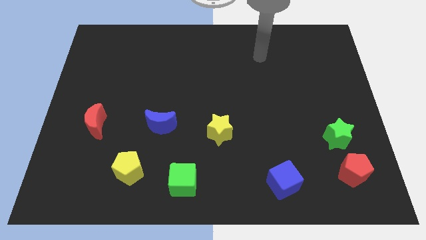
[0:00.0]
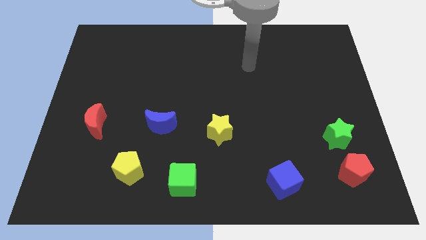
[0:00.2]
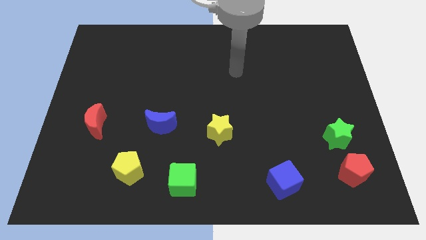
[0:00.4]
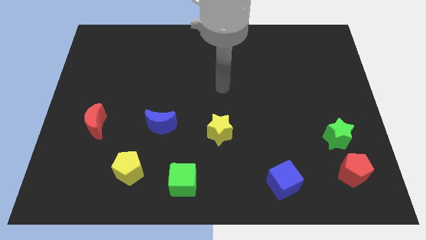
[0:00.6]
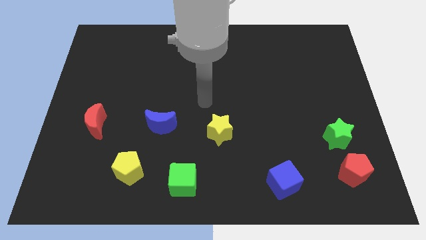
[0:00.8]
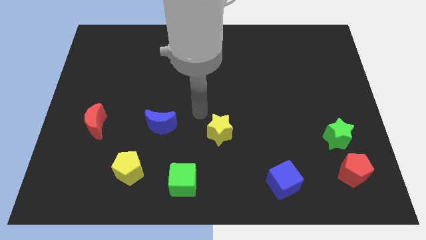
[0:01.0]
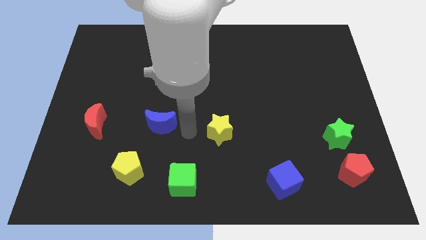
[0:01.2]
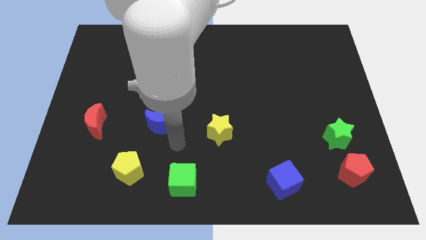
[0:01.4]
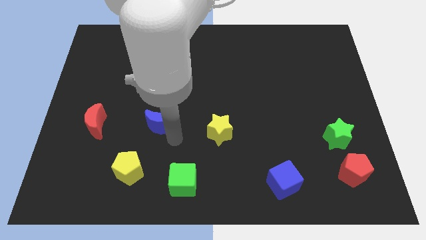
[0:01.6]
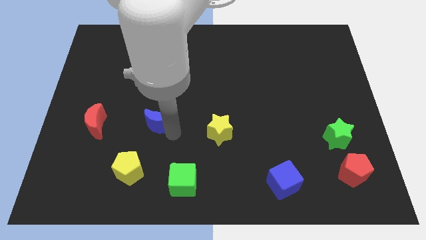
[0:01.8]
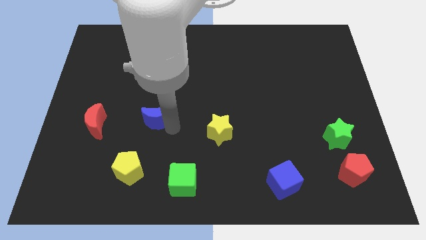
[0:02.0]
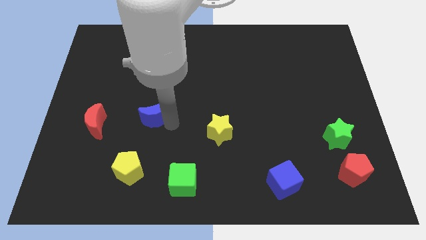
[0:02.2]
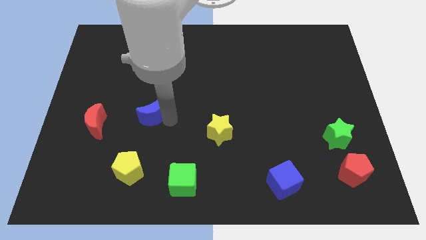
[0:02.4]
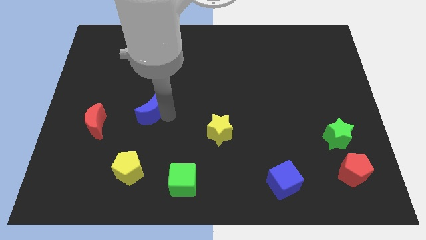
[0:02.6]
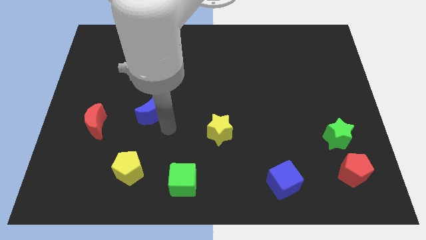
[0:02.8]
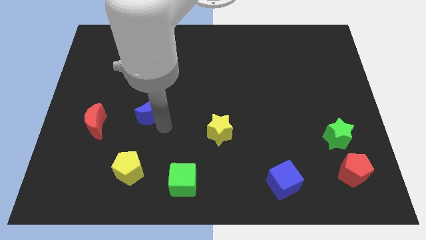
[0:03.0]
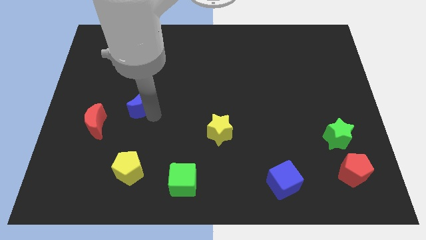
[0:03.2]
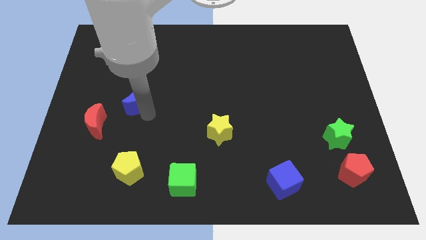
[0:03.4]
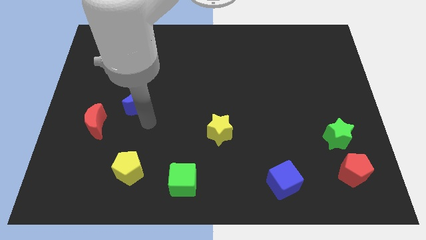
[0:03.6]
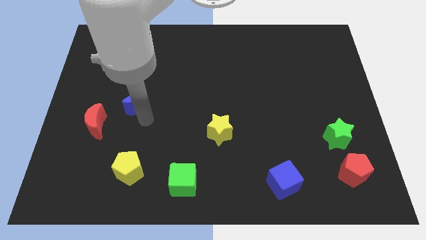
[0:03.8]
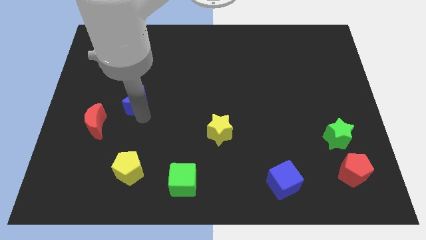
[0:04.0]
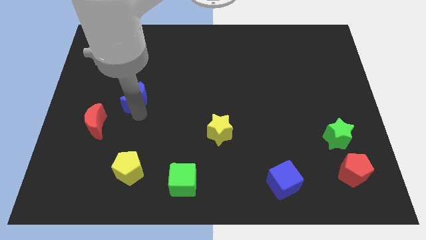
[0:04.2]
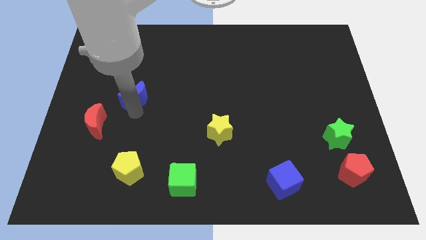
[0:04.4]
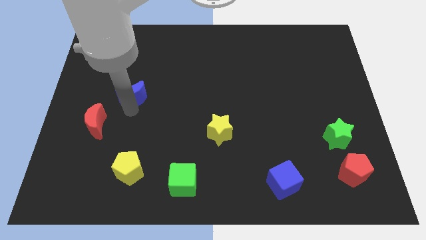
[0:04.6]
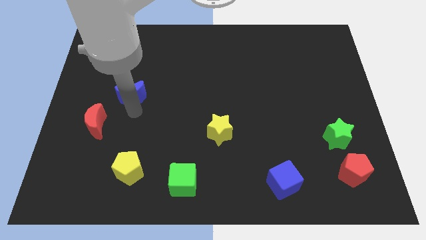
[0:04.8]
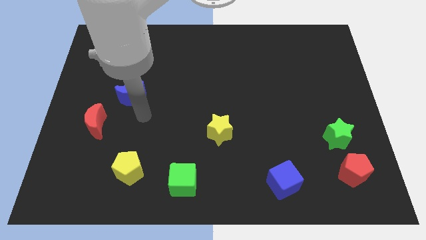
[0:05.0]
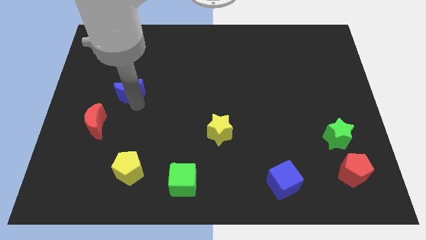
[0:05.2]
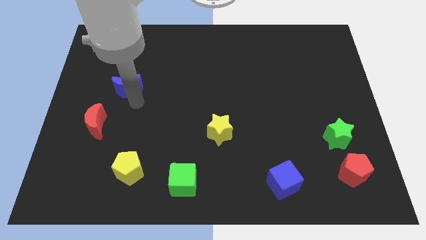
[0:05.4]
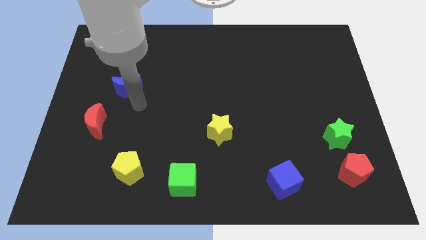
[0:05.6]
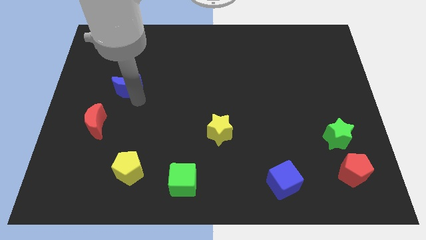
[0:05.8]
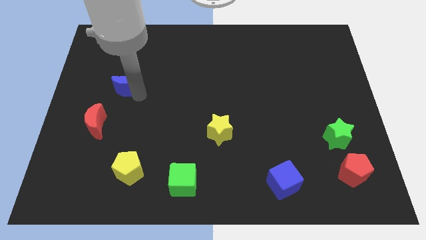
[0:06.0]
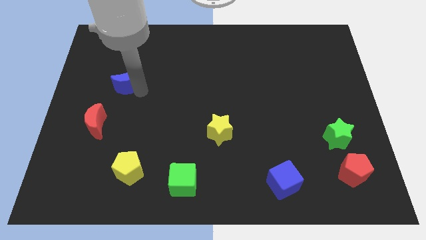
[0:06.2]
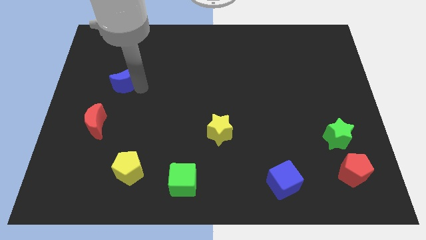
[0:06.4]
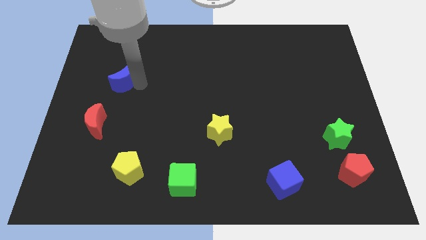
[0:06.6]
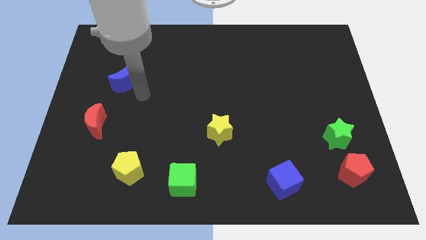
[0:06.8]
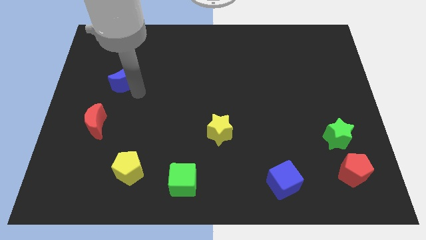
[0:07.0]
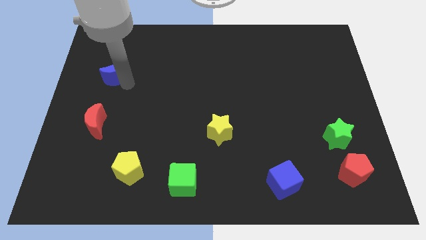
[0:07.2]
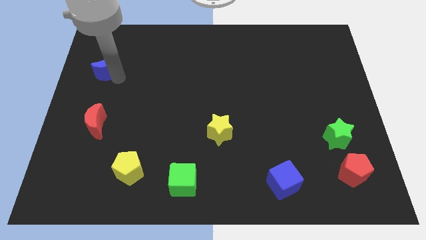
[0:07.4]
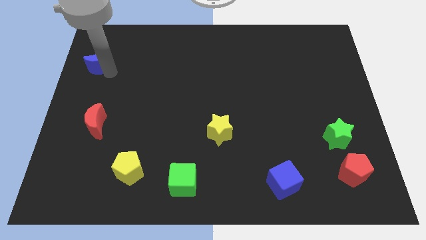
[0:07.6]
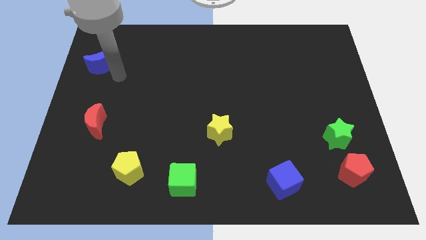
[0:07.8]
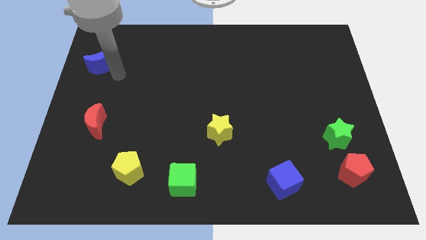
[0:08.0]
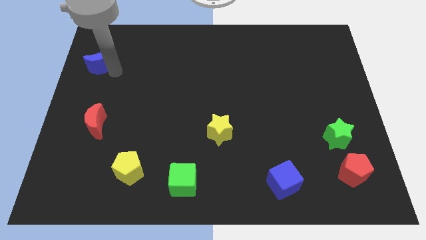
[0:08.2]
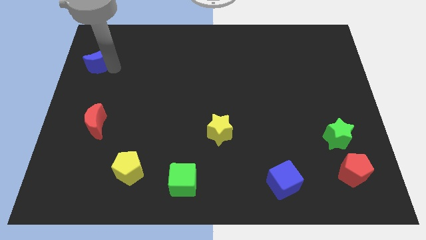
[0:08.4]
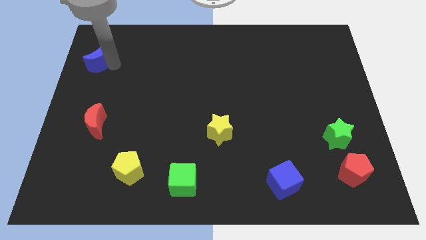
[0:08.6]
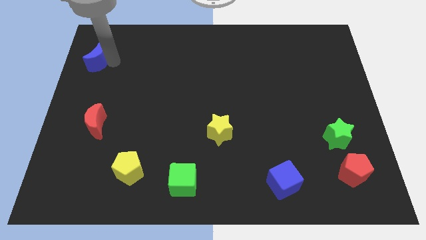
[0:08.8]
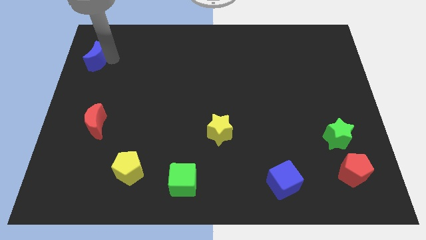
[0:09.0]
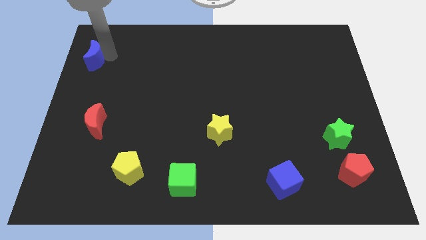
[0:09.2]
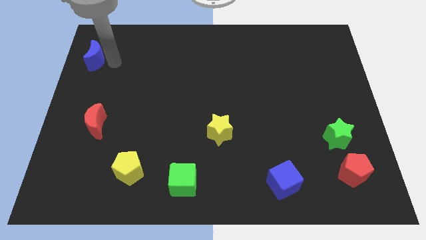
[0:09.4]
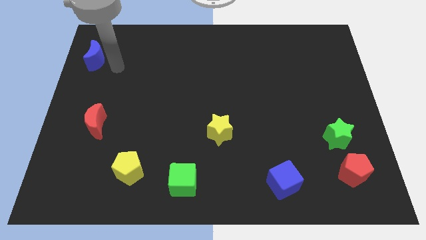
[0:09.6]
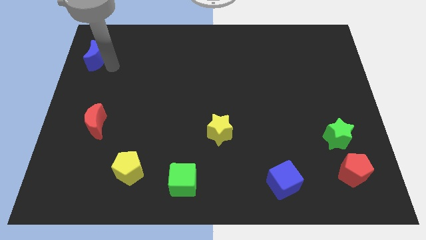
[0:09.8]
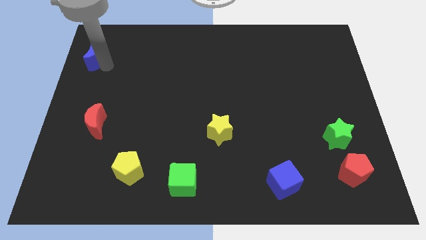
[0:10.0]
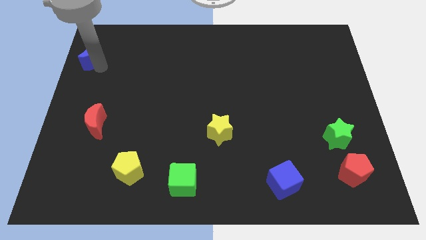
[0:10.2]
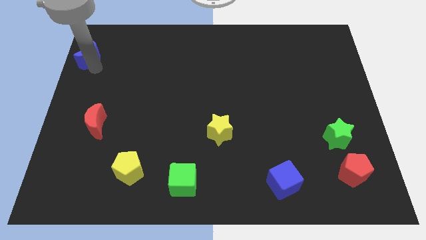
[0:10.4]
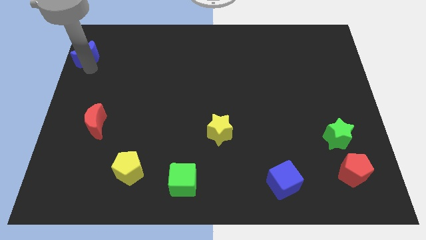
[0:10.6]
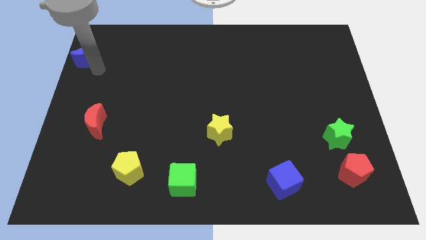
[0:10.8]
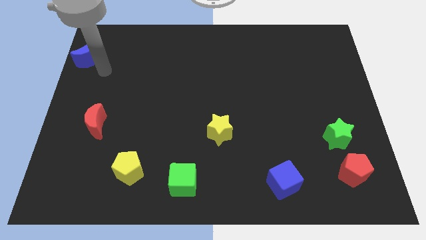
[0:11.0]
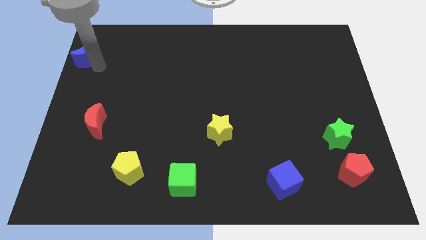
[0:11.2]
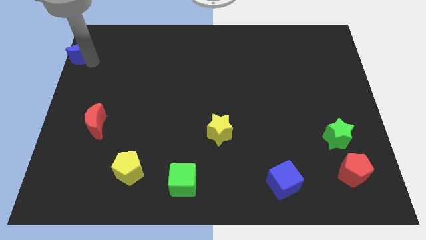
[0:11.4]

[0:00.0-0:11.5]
slide the blue moon to the top left of the board

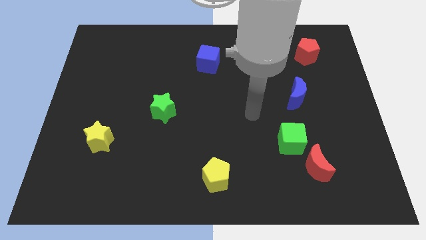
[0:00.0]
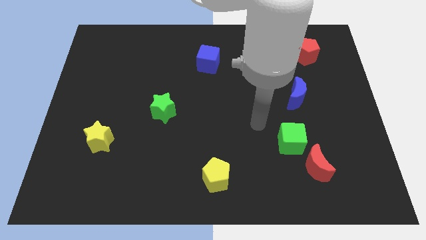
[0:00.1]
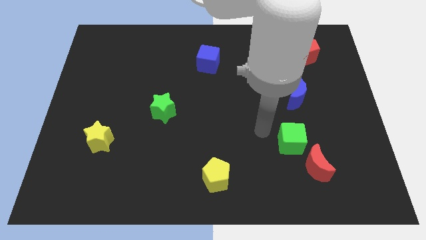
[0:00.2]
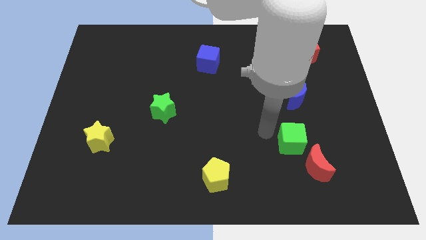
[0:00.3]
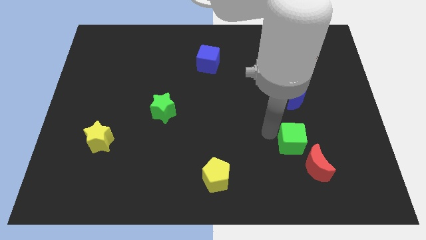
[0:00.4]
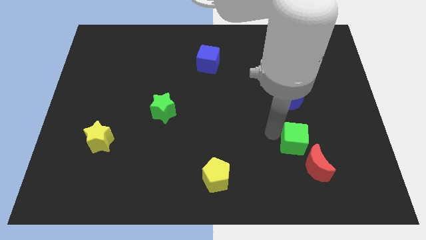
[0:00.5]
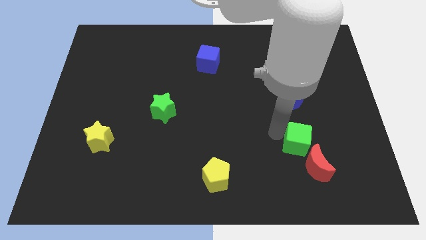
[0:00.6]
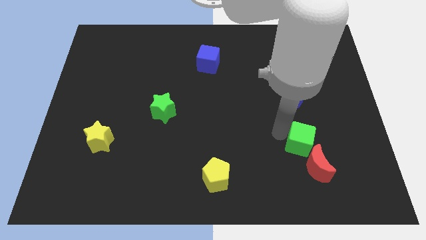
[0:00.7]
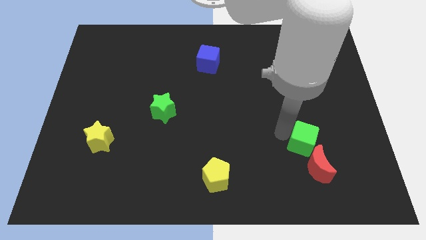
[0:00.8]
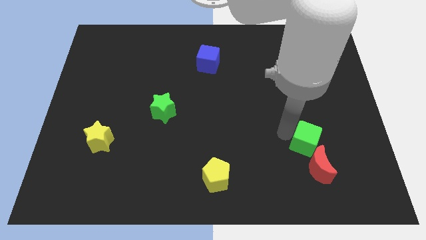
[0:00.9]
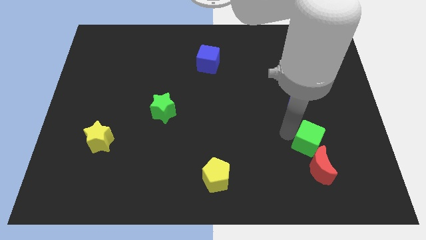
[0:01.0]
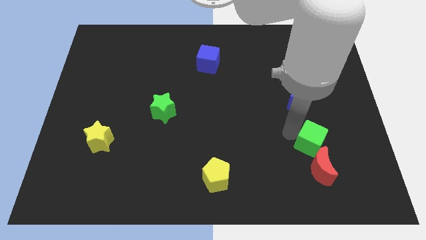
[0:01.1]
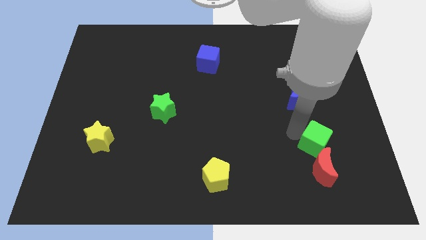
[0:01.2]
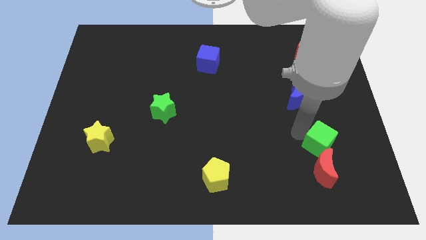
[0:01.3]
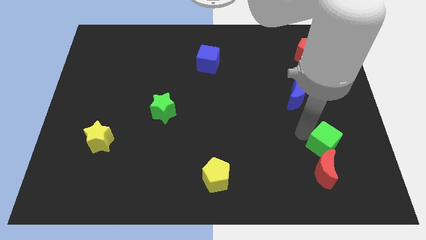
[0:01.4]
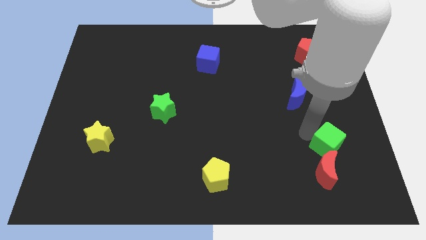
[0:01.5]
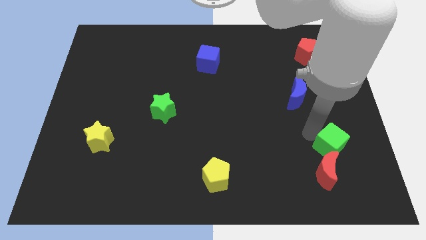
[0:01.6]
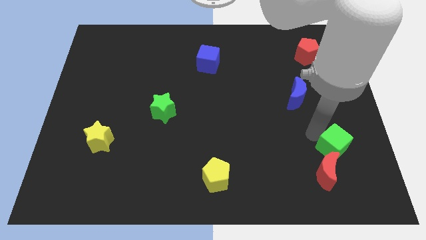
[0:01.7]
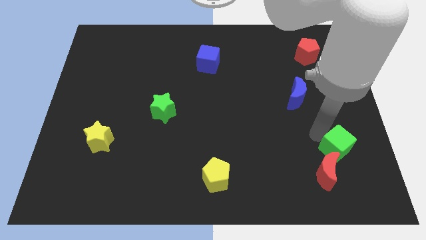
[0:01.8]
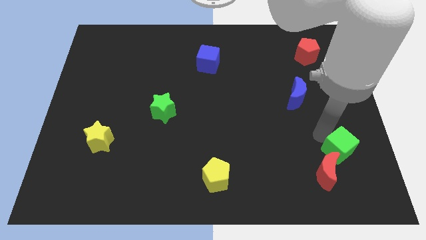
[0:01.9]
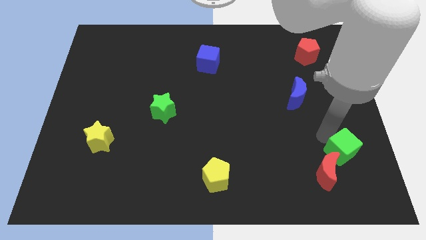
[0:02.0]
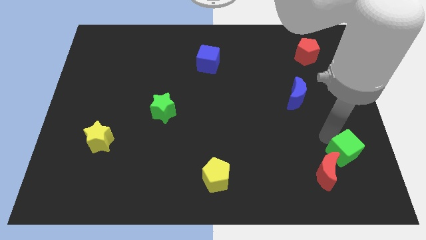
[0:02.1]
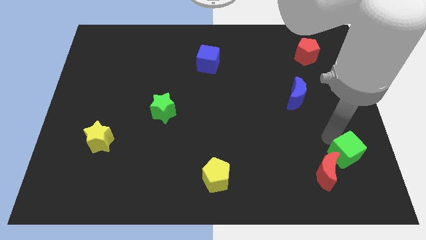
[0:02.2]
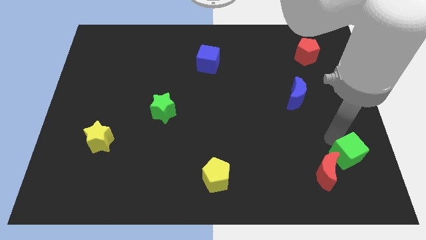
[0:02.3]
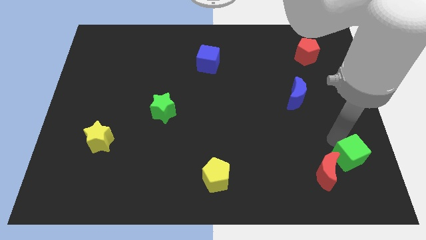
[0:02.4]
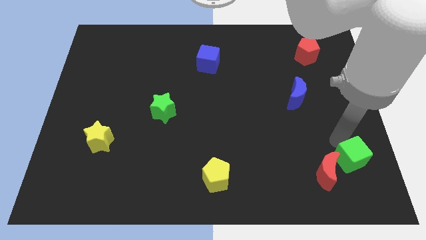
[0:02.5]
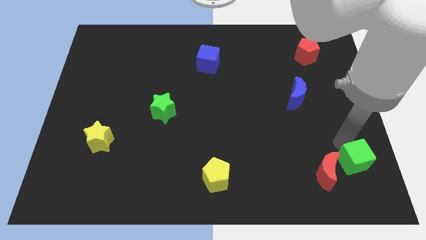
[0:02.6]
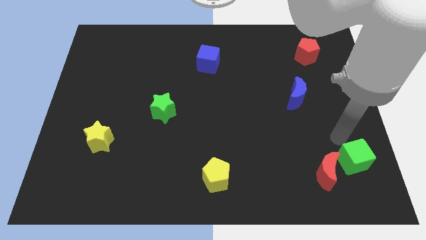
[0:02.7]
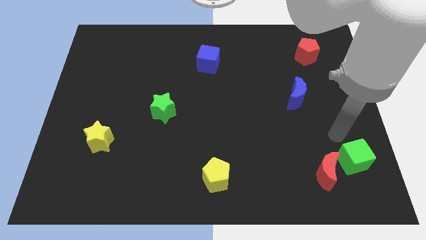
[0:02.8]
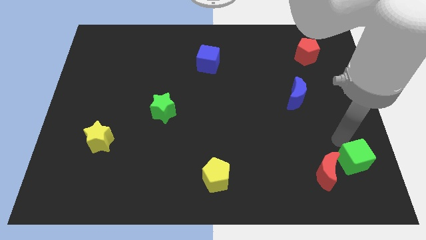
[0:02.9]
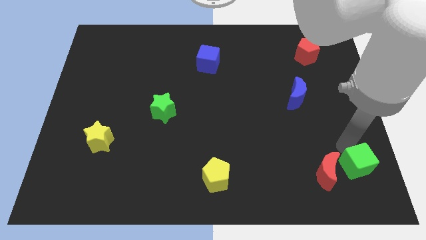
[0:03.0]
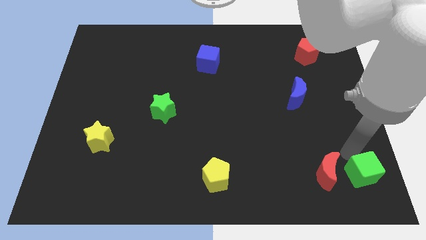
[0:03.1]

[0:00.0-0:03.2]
push the green cube to the bottom right
